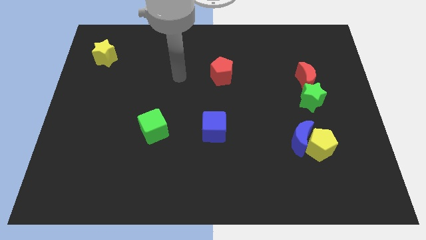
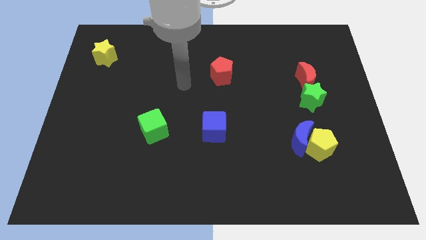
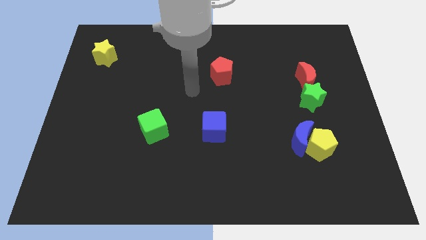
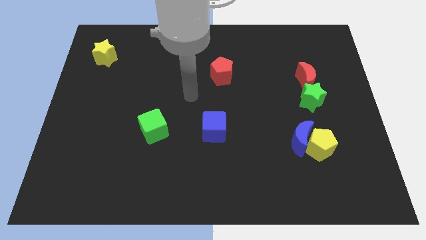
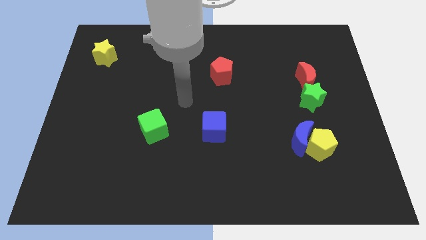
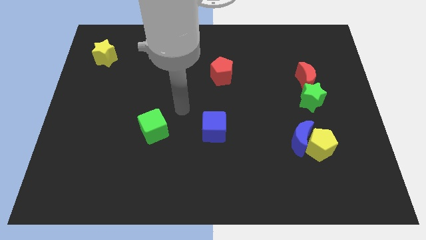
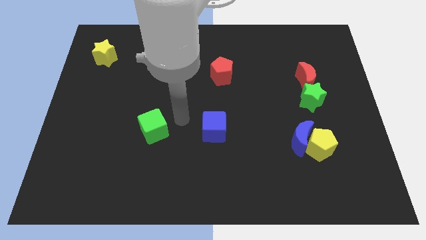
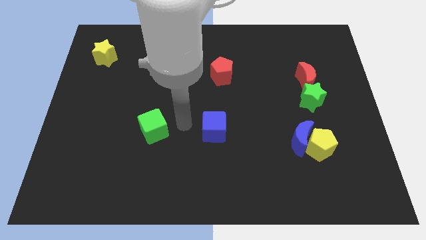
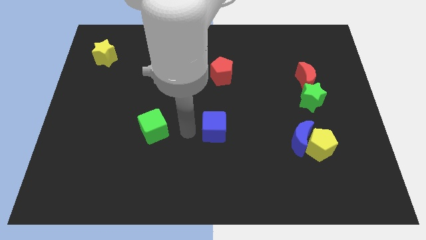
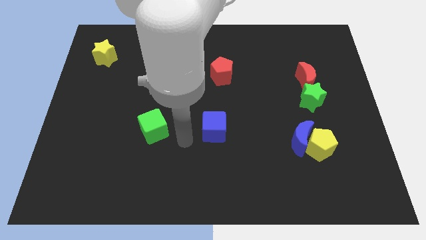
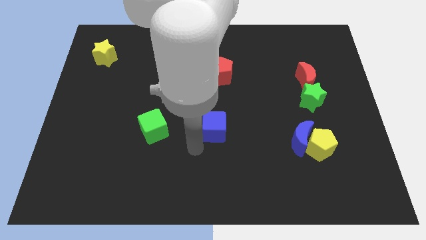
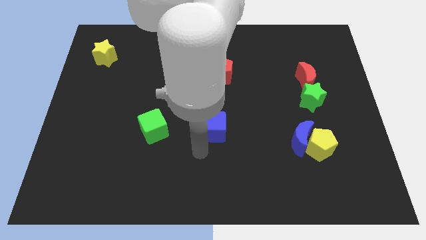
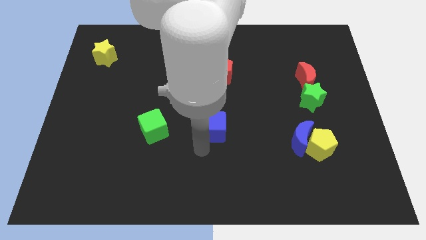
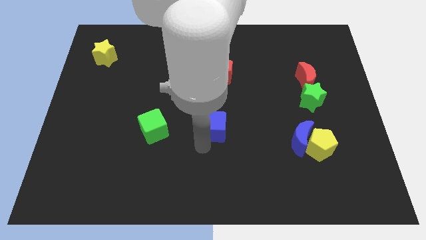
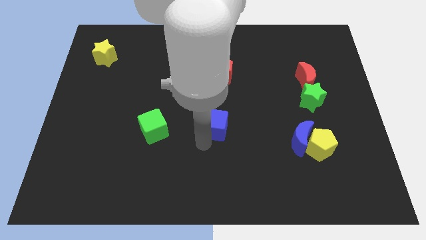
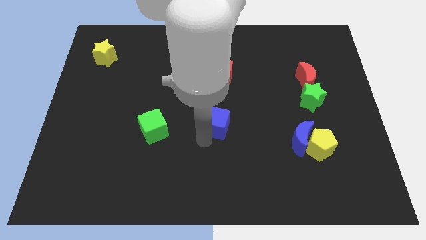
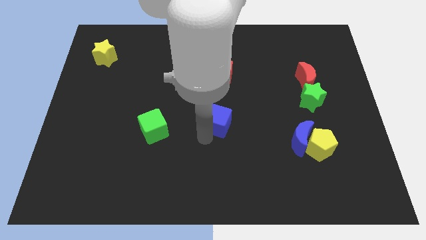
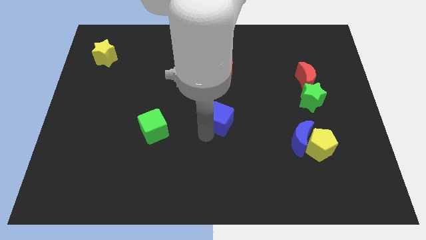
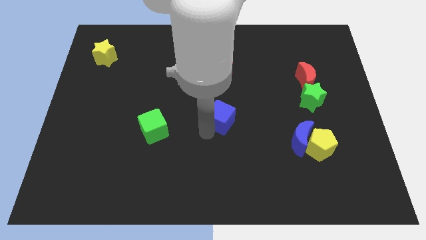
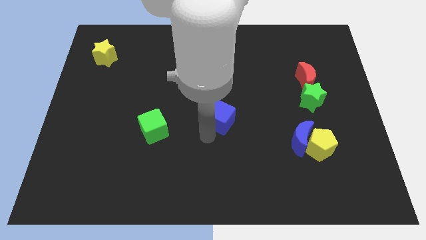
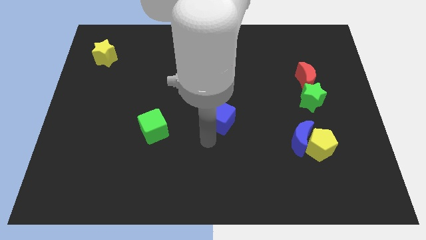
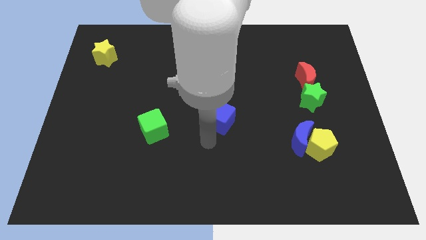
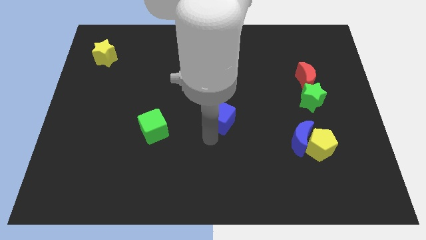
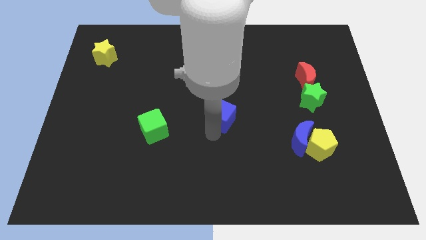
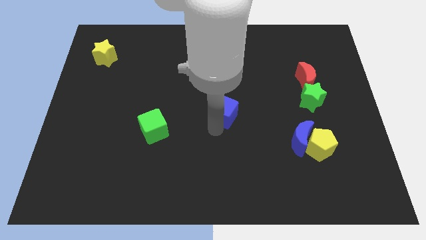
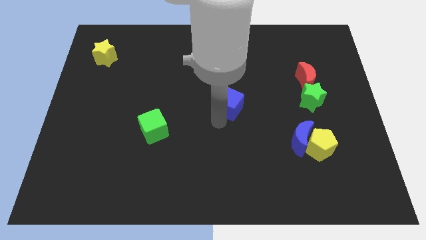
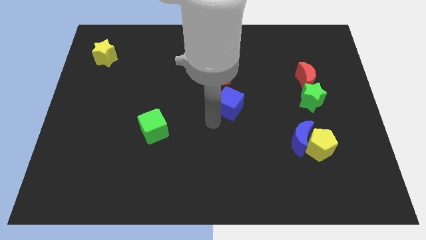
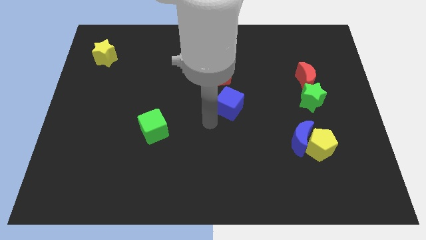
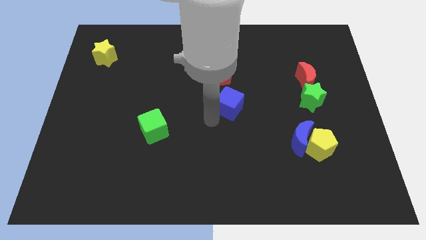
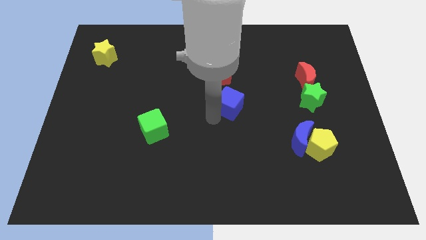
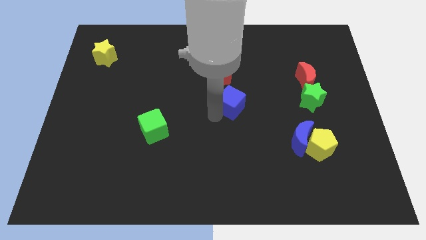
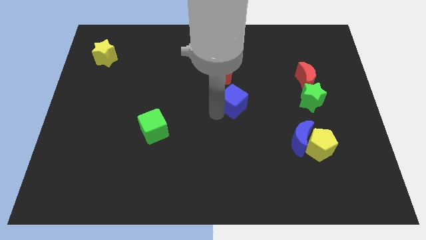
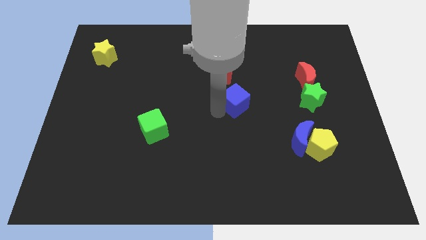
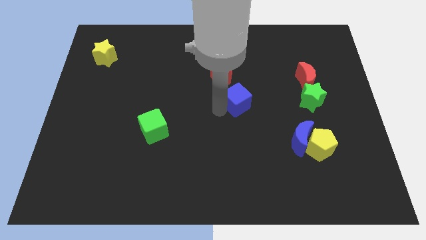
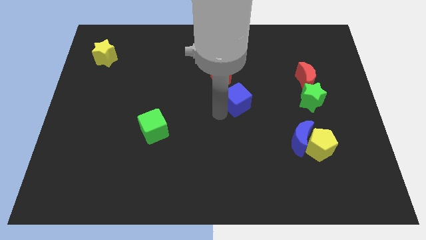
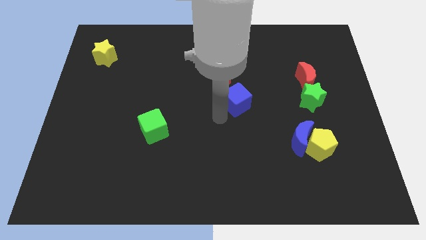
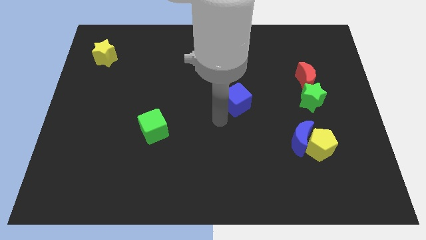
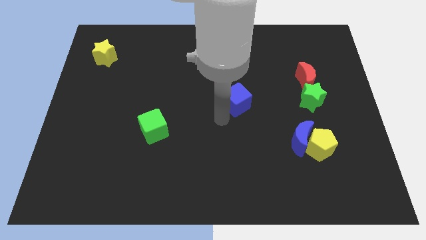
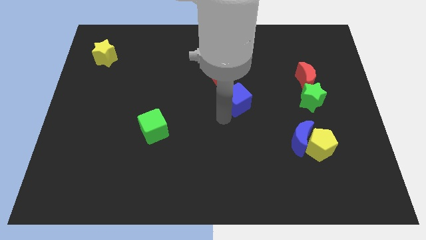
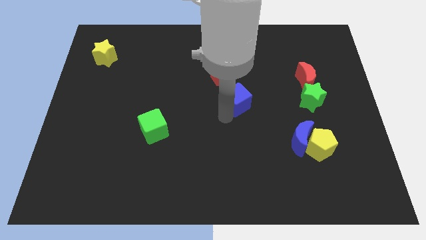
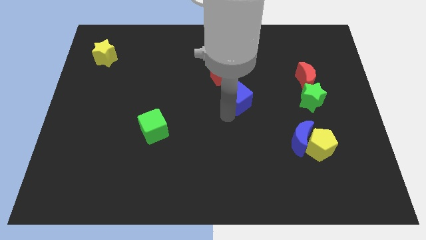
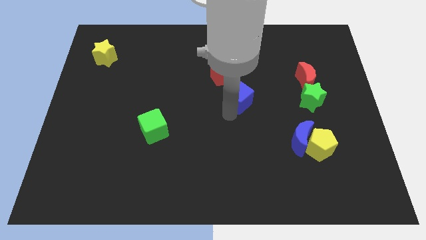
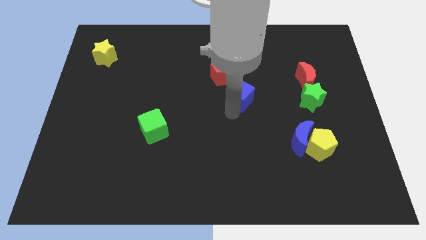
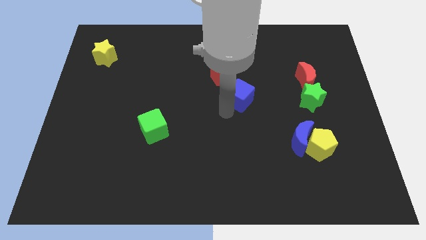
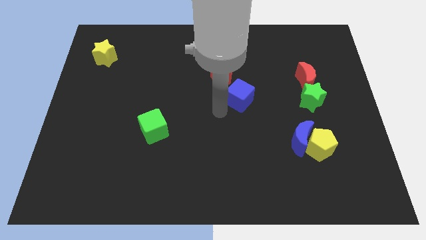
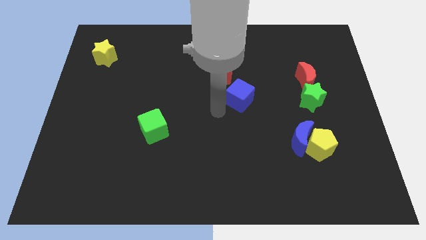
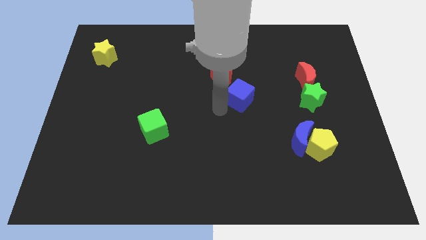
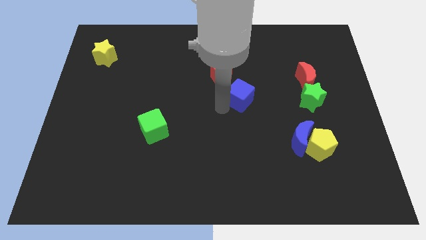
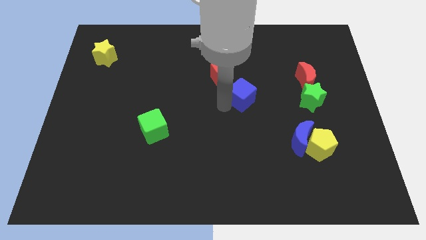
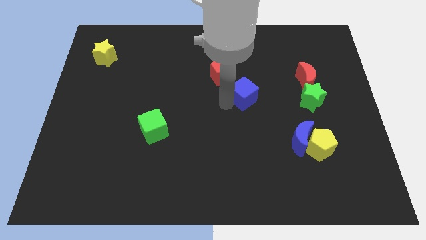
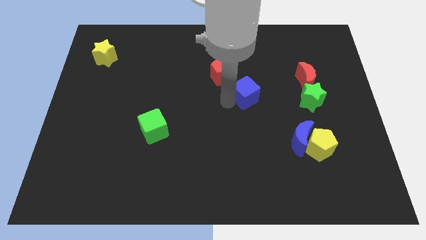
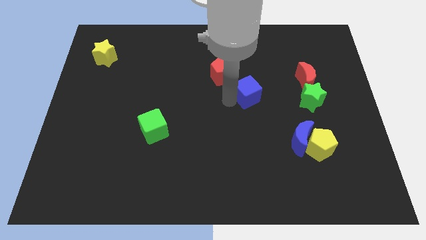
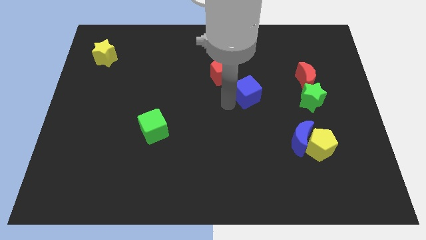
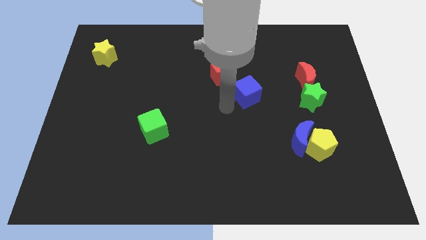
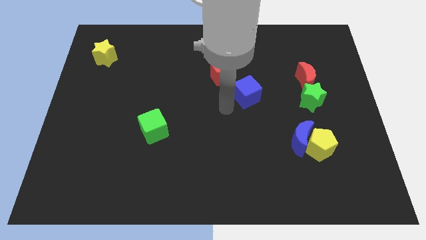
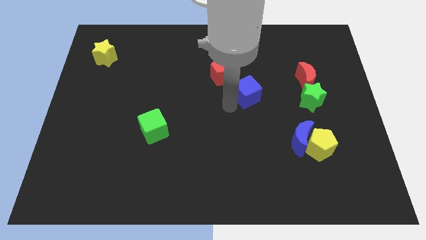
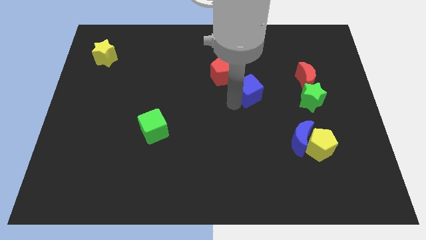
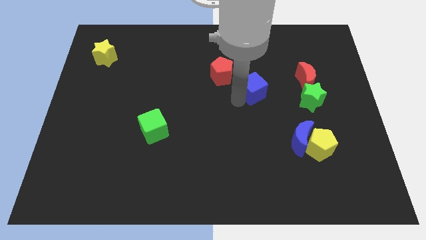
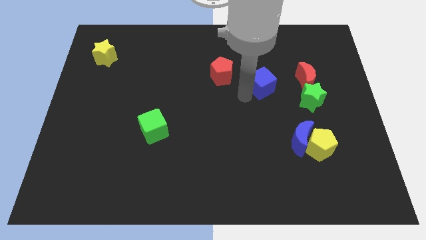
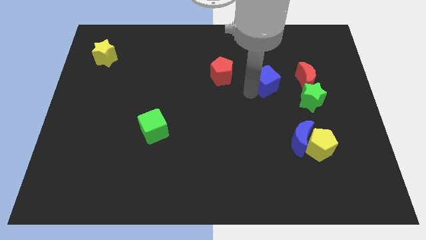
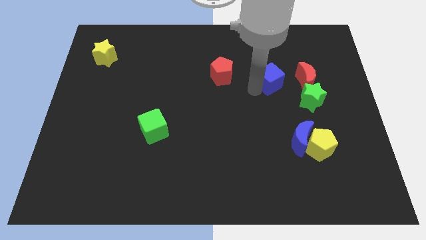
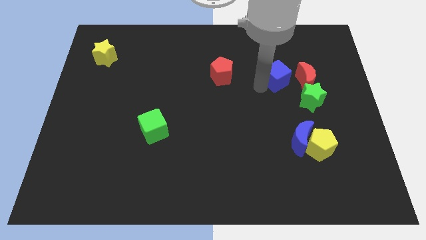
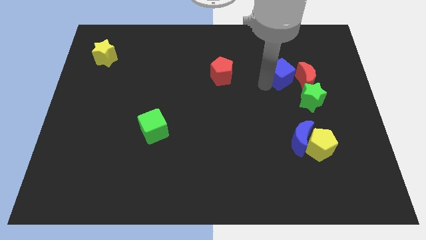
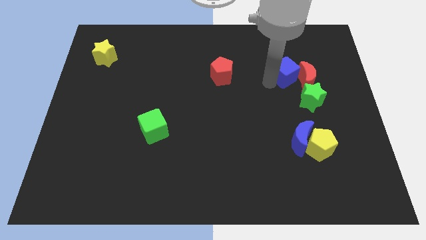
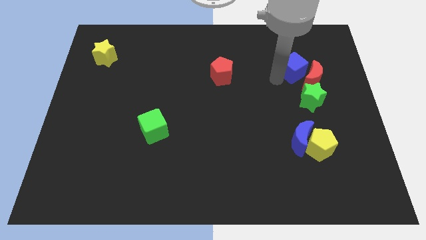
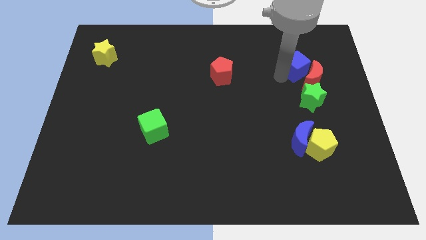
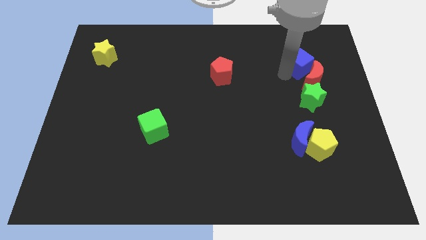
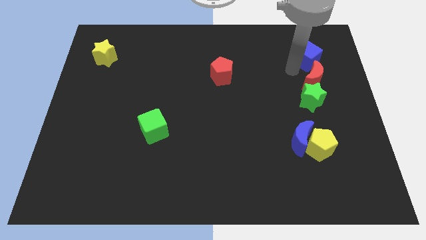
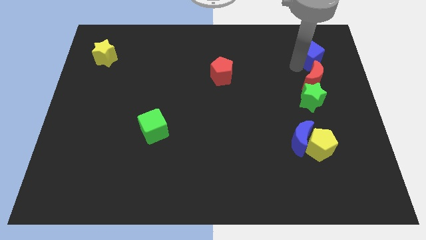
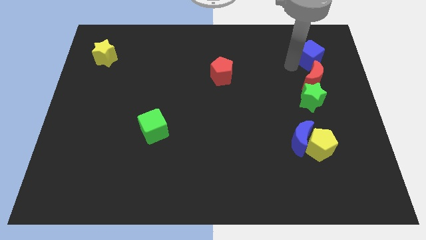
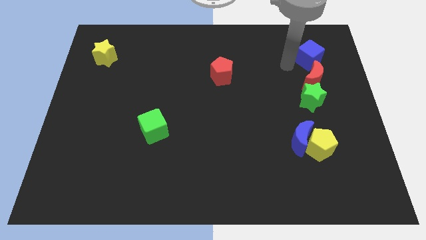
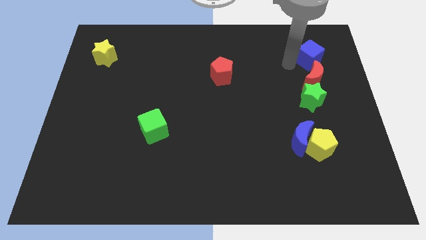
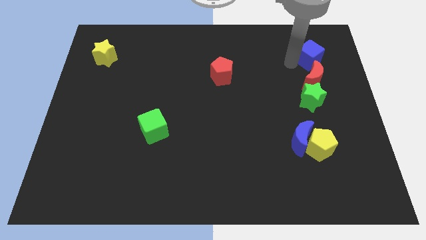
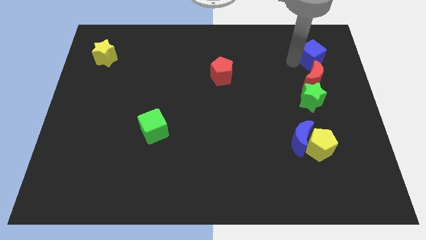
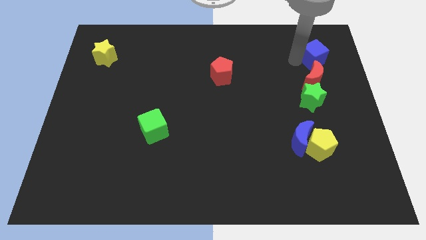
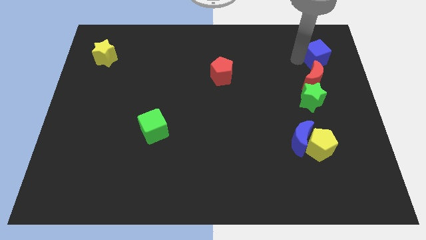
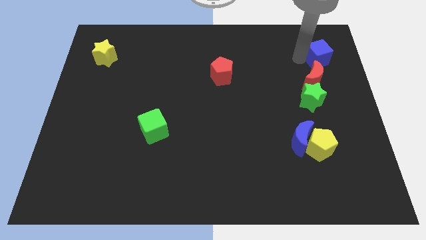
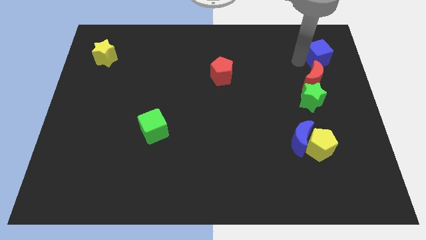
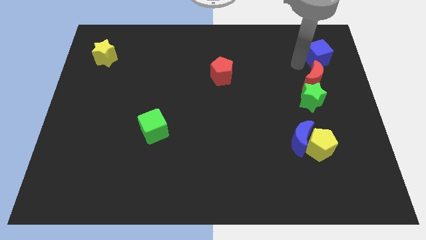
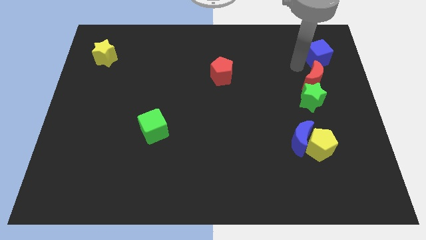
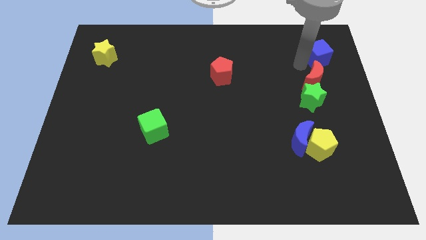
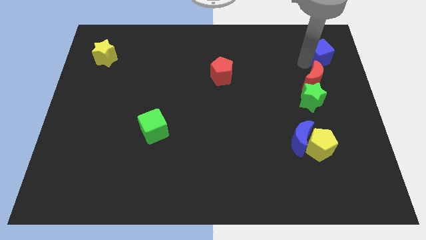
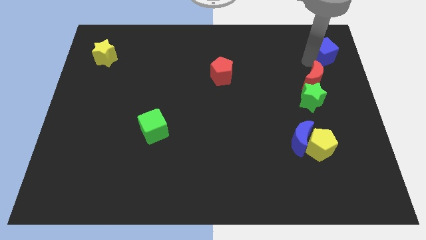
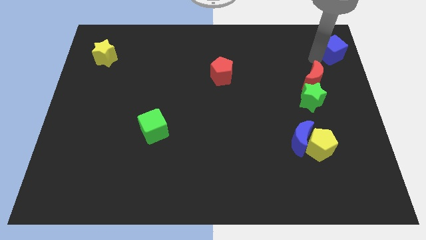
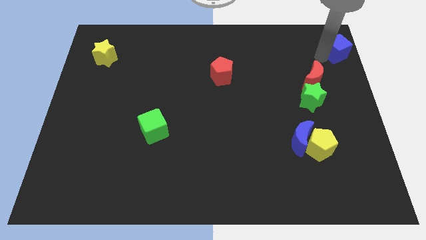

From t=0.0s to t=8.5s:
move the blue cube to the top right
